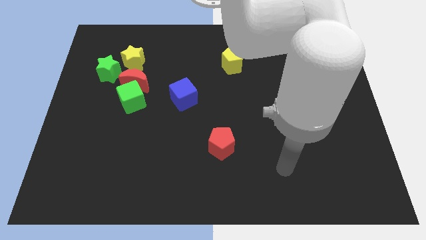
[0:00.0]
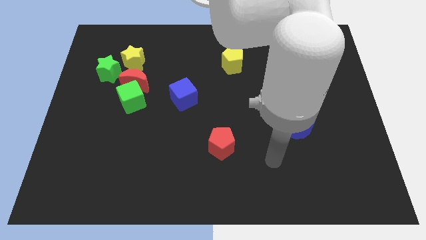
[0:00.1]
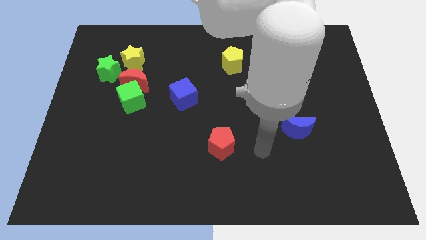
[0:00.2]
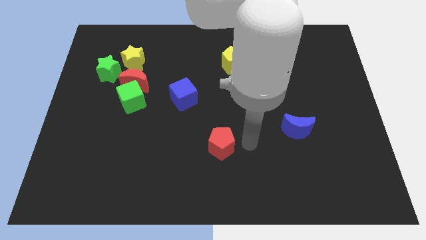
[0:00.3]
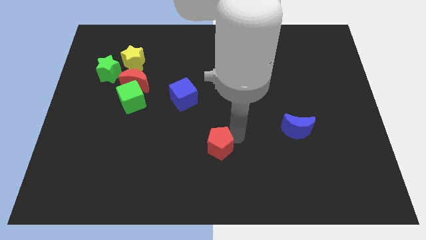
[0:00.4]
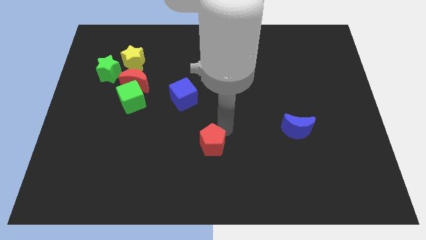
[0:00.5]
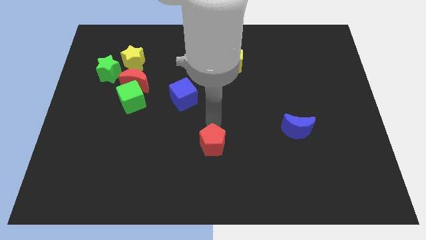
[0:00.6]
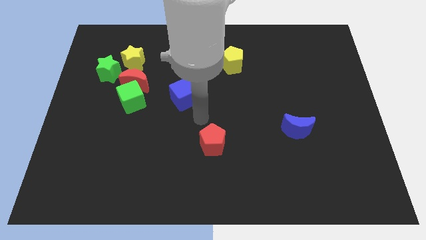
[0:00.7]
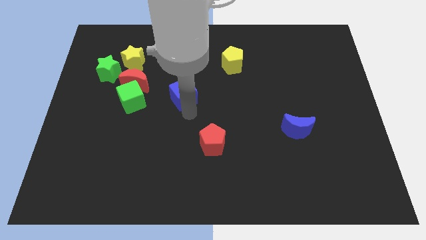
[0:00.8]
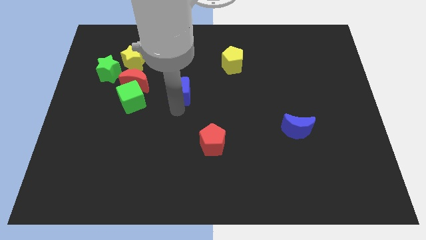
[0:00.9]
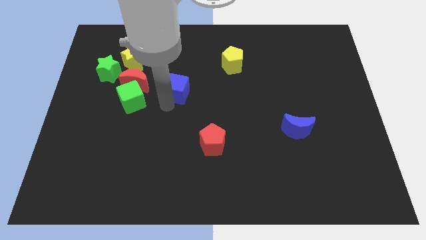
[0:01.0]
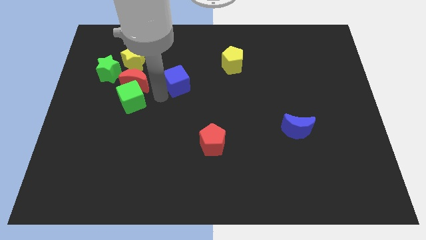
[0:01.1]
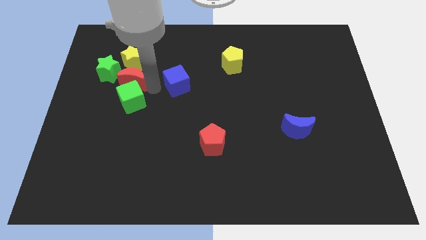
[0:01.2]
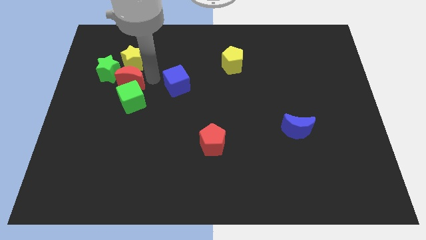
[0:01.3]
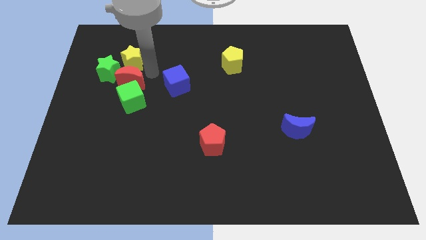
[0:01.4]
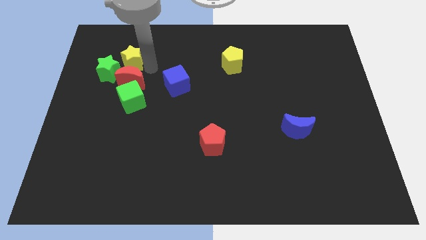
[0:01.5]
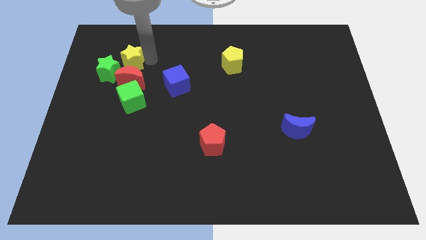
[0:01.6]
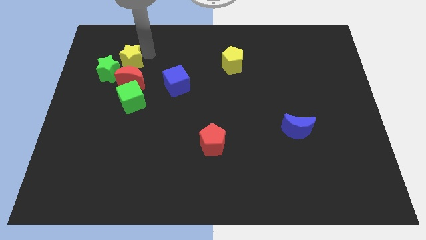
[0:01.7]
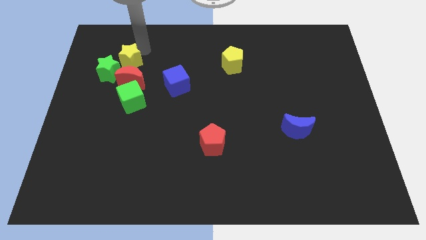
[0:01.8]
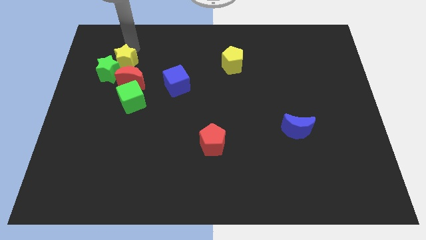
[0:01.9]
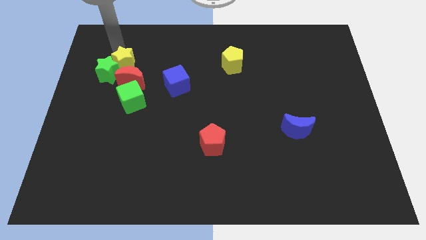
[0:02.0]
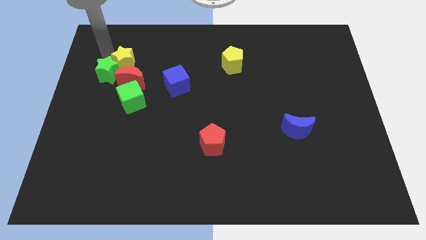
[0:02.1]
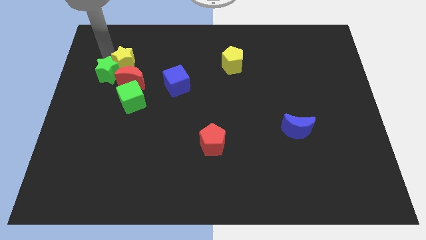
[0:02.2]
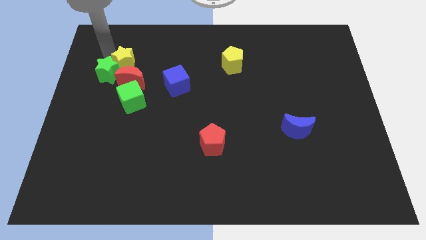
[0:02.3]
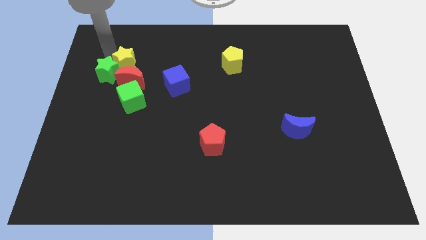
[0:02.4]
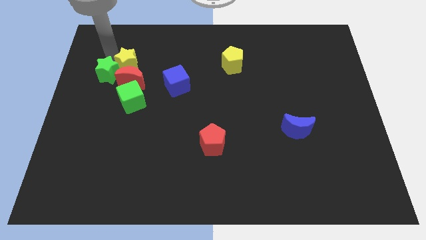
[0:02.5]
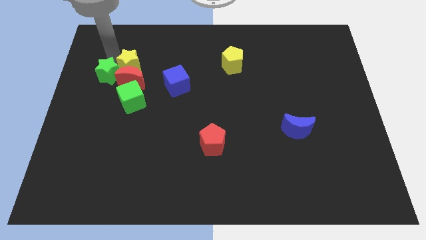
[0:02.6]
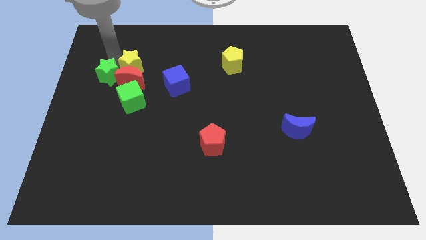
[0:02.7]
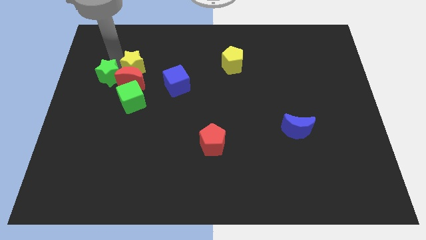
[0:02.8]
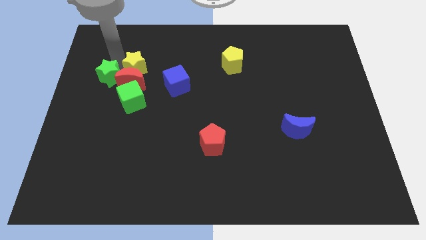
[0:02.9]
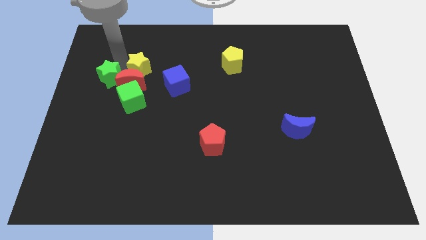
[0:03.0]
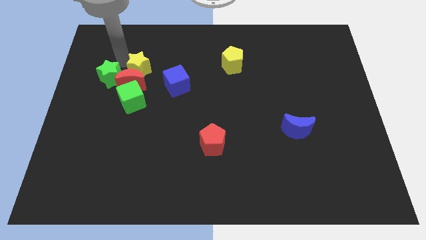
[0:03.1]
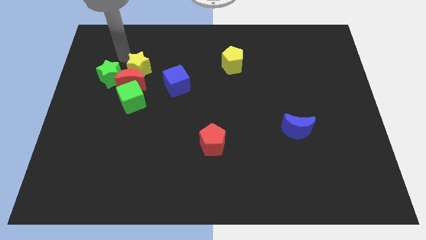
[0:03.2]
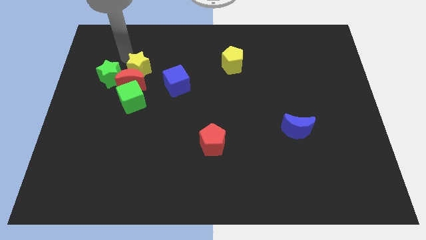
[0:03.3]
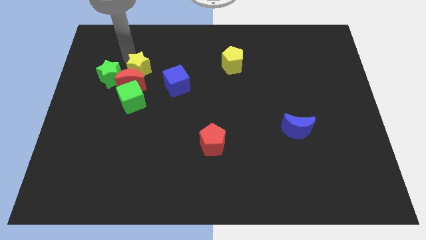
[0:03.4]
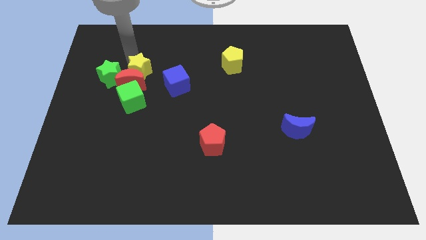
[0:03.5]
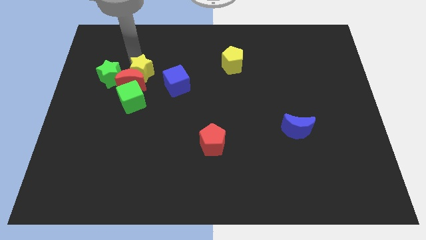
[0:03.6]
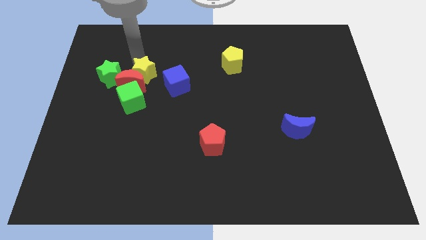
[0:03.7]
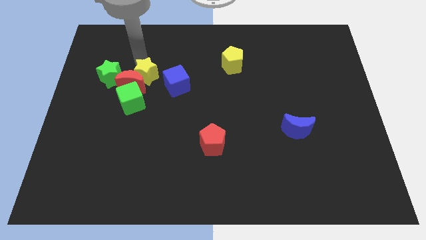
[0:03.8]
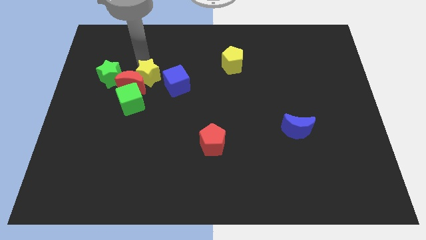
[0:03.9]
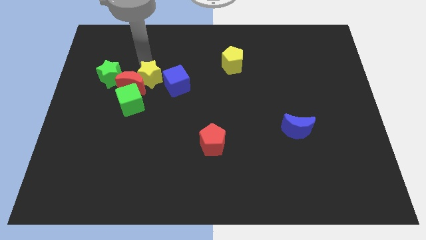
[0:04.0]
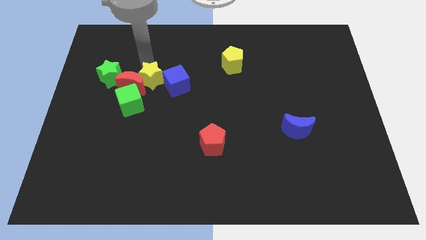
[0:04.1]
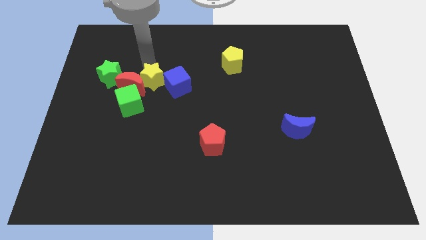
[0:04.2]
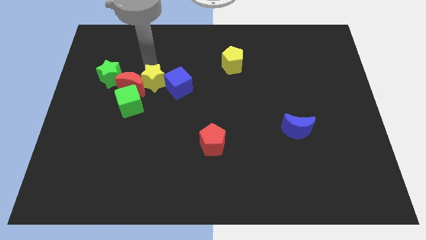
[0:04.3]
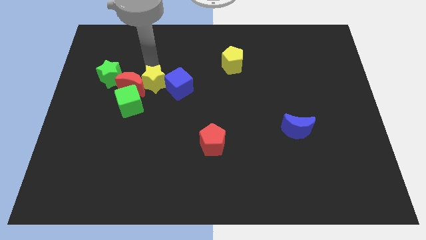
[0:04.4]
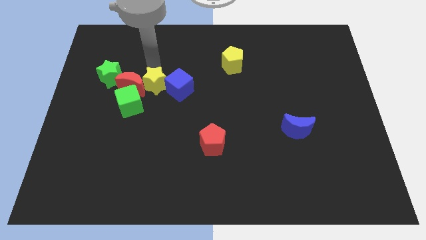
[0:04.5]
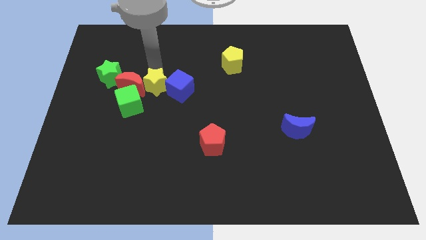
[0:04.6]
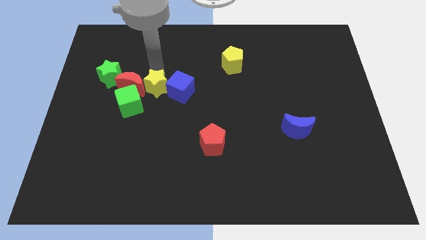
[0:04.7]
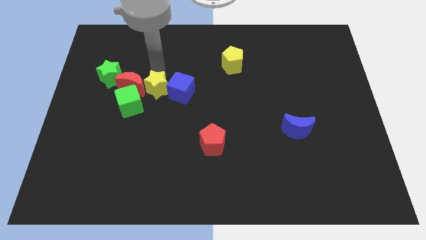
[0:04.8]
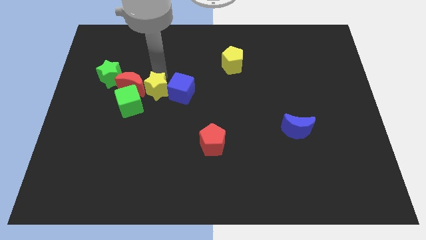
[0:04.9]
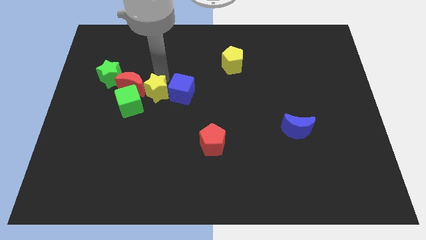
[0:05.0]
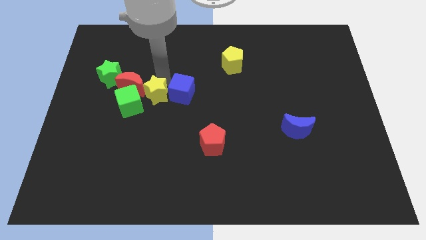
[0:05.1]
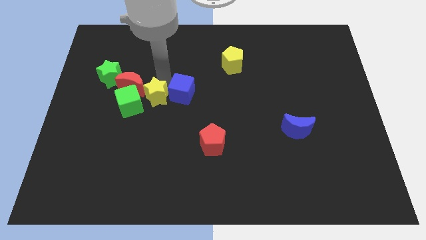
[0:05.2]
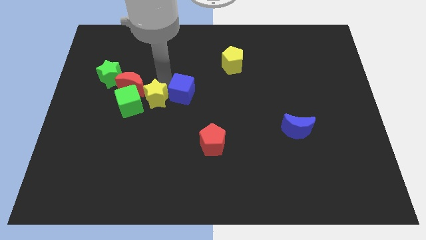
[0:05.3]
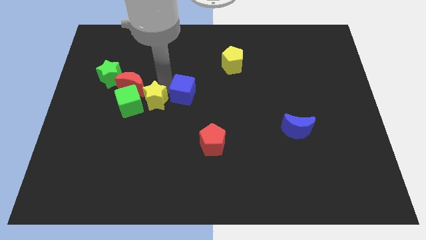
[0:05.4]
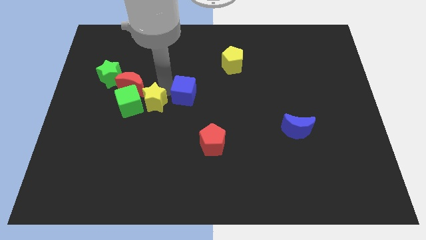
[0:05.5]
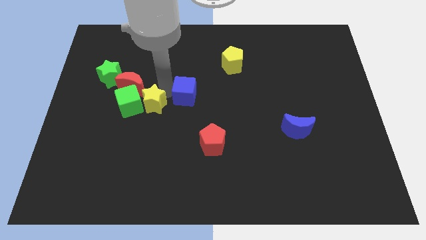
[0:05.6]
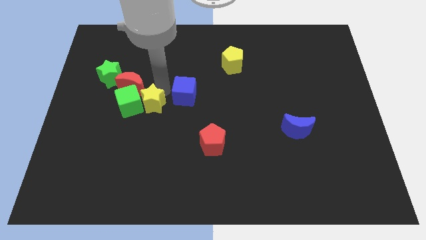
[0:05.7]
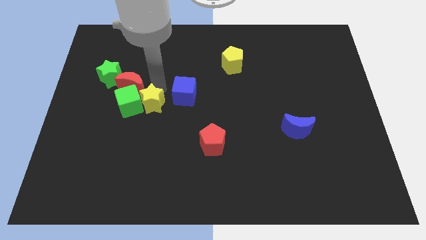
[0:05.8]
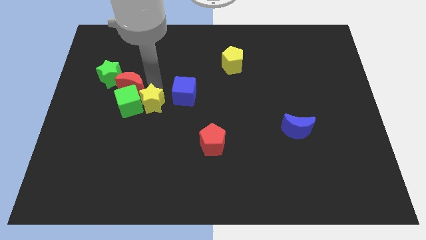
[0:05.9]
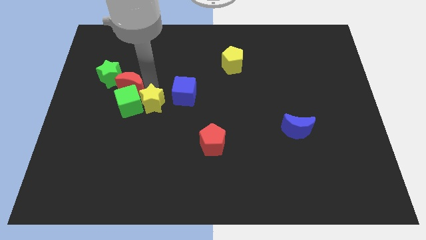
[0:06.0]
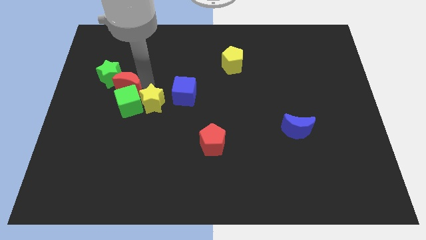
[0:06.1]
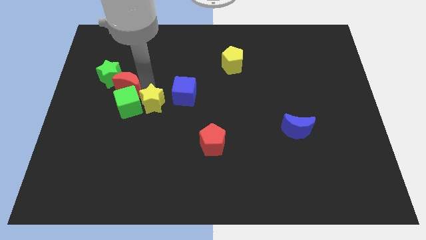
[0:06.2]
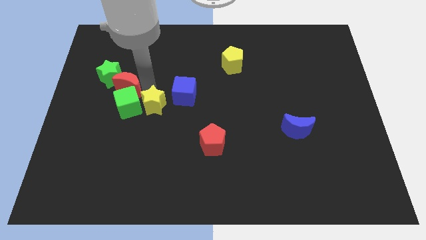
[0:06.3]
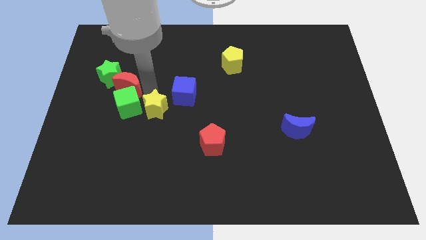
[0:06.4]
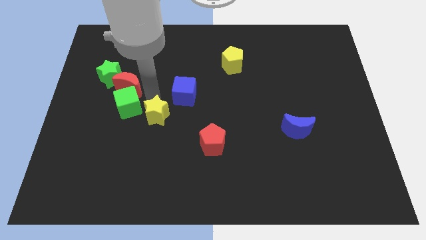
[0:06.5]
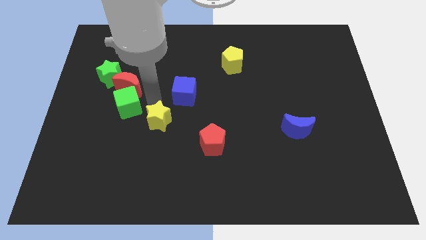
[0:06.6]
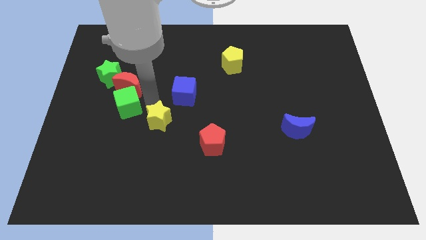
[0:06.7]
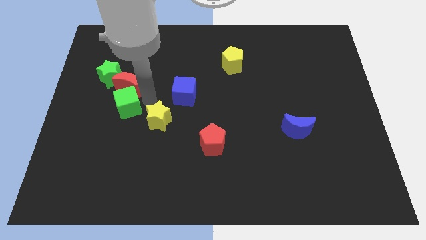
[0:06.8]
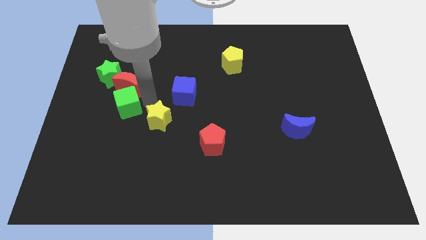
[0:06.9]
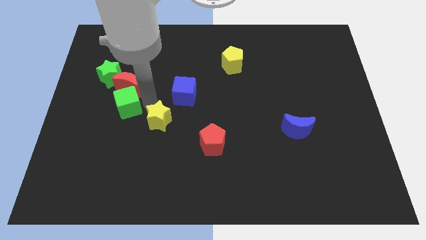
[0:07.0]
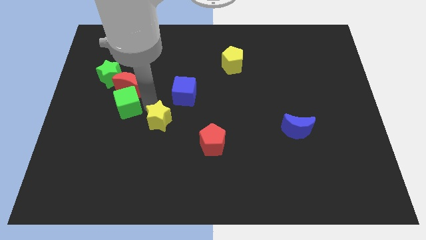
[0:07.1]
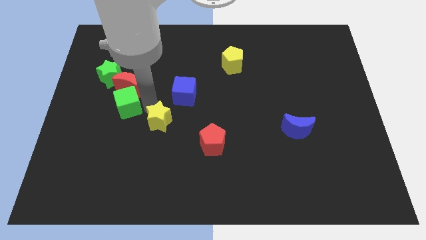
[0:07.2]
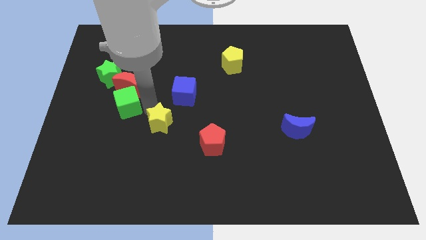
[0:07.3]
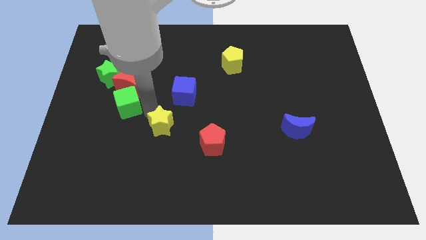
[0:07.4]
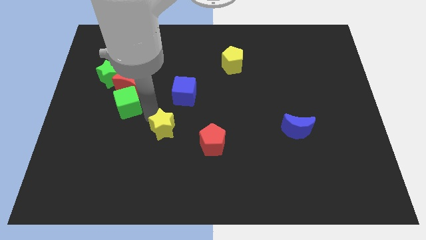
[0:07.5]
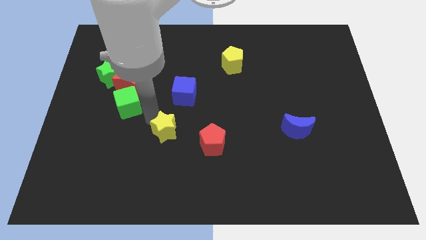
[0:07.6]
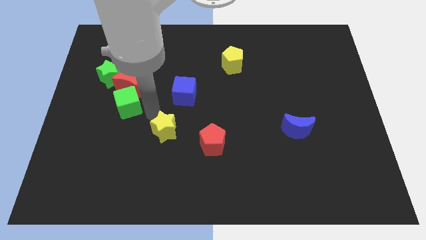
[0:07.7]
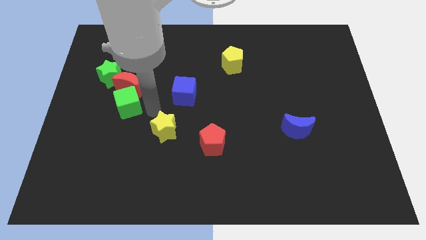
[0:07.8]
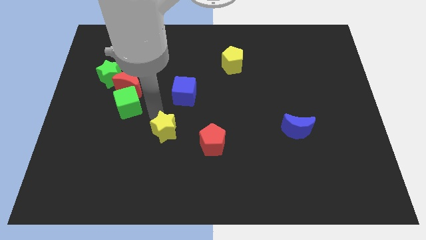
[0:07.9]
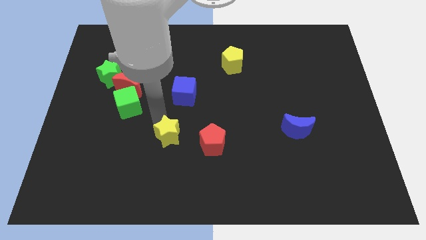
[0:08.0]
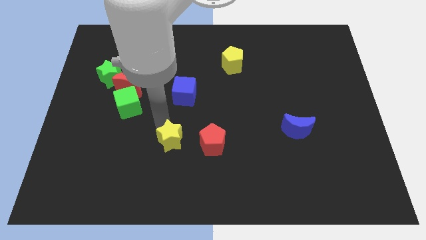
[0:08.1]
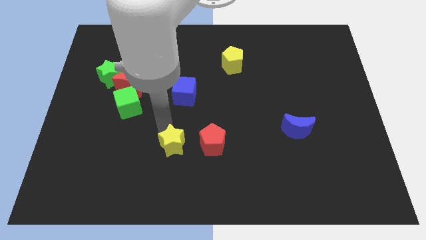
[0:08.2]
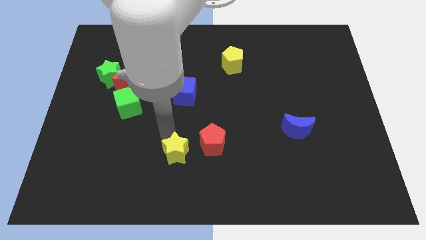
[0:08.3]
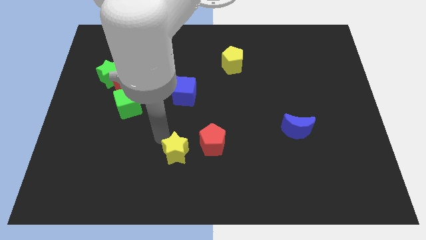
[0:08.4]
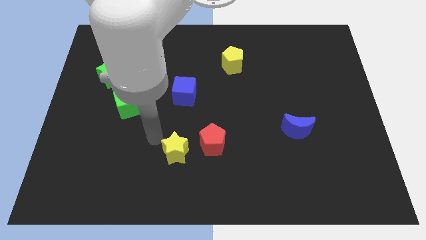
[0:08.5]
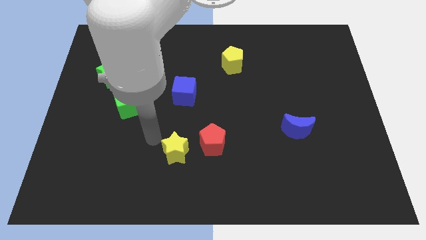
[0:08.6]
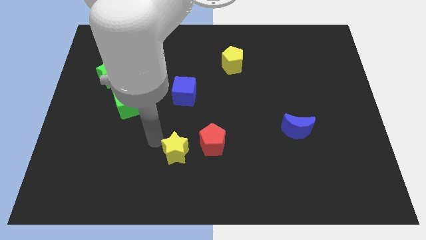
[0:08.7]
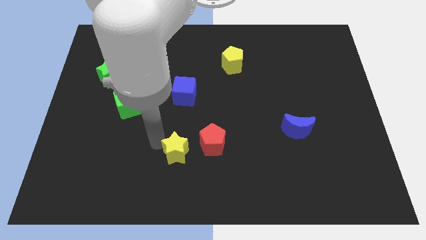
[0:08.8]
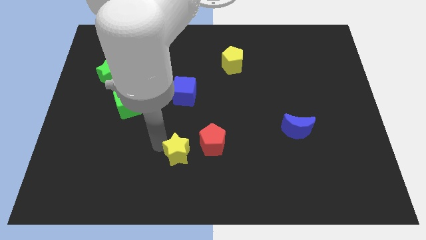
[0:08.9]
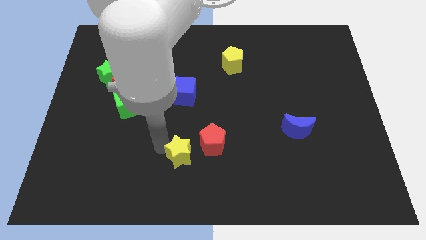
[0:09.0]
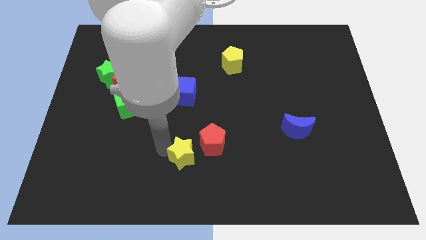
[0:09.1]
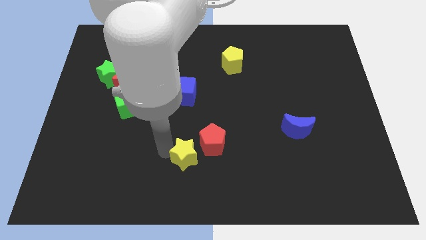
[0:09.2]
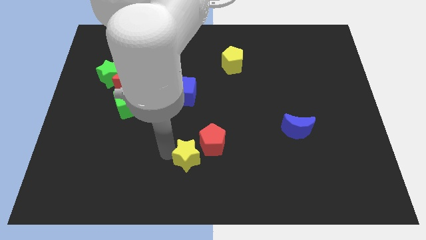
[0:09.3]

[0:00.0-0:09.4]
push the yellow star to the bottom
